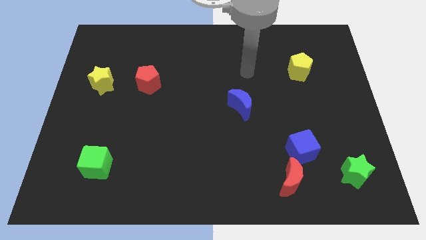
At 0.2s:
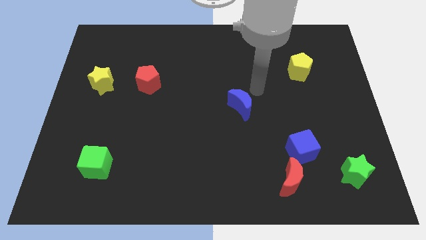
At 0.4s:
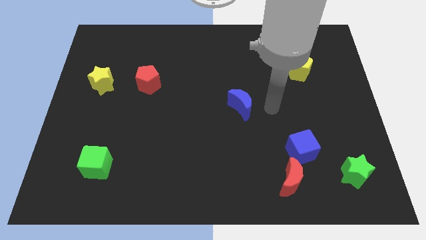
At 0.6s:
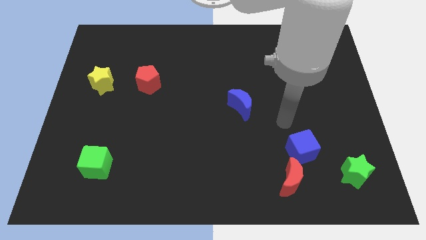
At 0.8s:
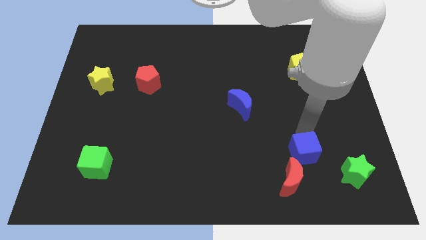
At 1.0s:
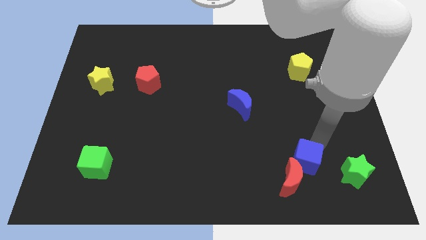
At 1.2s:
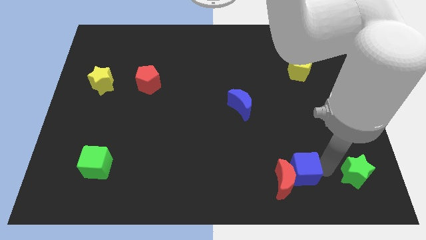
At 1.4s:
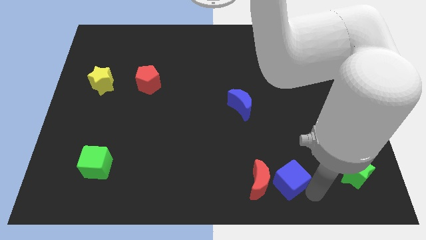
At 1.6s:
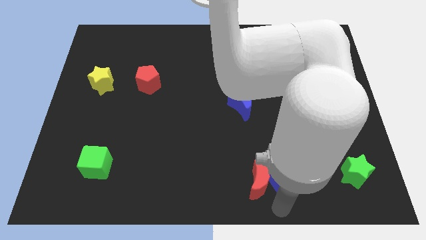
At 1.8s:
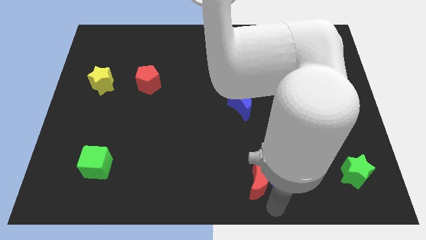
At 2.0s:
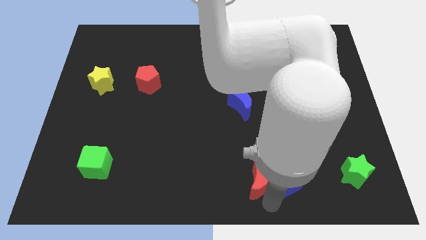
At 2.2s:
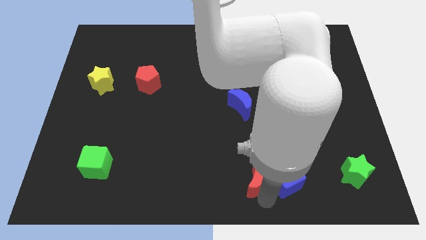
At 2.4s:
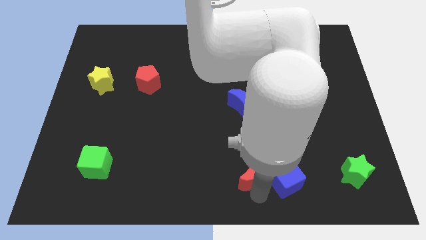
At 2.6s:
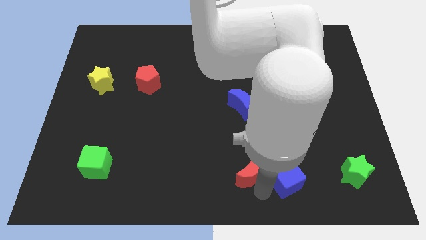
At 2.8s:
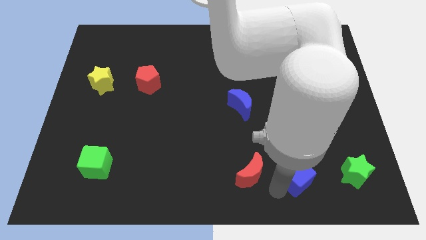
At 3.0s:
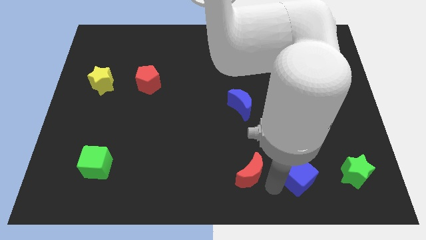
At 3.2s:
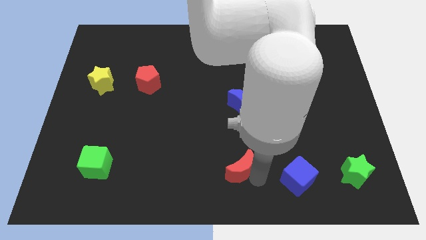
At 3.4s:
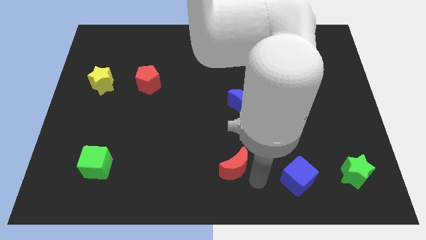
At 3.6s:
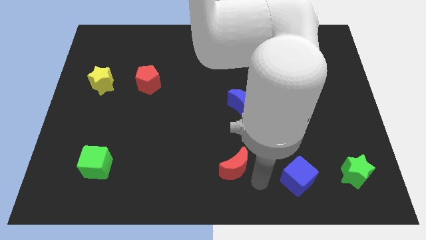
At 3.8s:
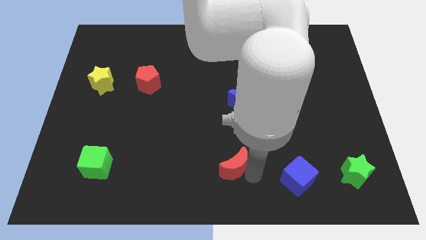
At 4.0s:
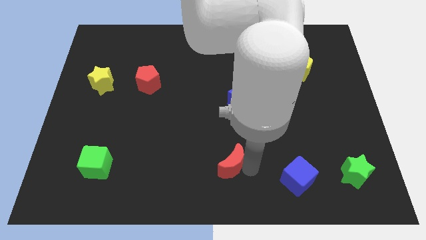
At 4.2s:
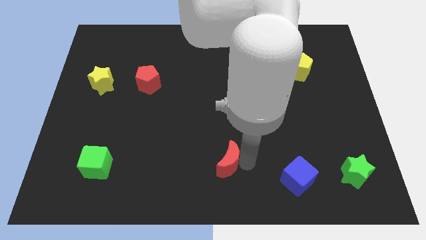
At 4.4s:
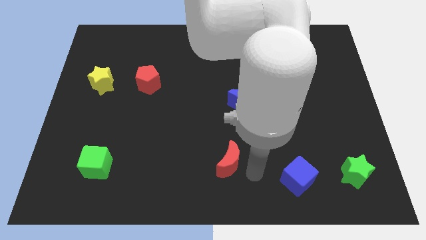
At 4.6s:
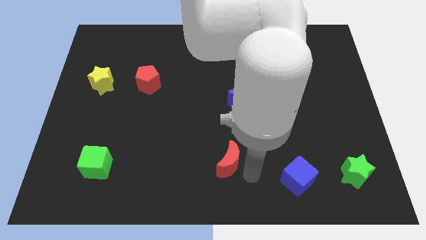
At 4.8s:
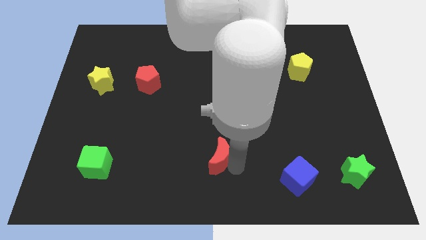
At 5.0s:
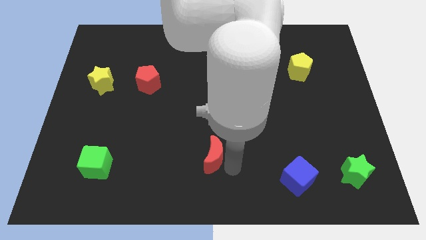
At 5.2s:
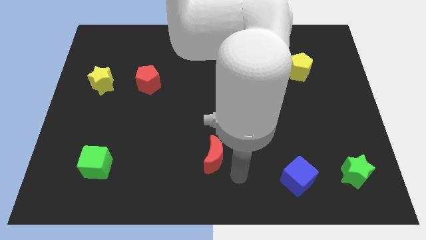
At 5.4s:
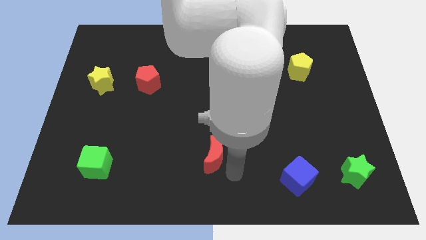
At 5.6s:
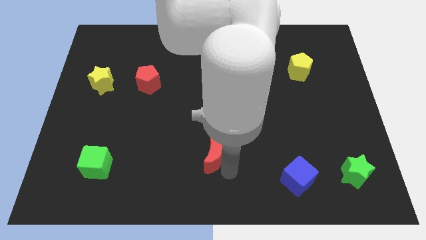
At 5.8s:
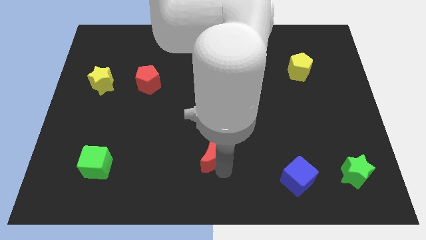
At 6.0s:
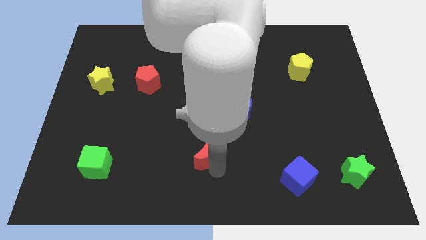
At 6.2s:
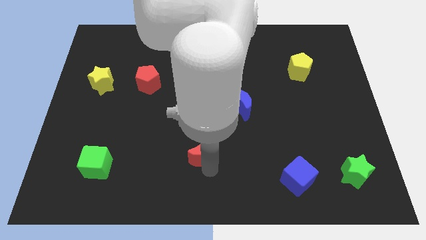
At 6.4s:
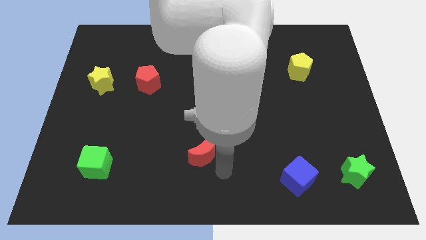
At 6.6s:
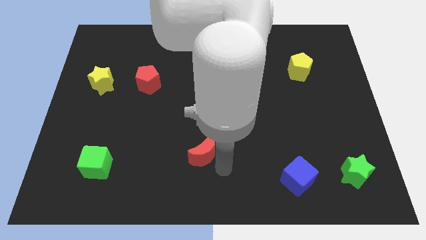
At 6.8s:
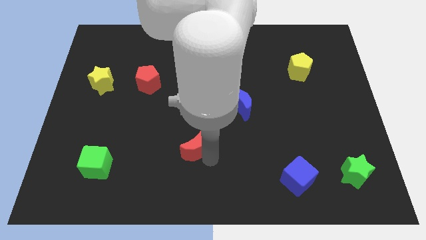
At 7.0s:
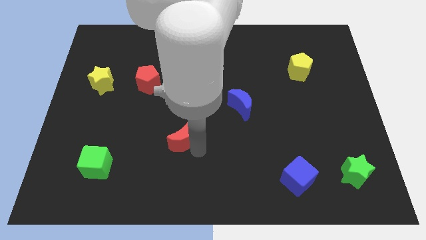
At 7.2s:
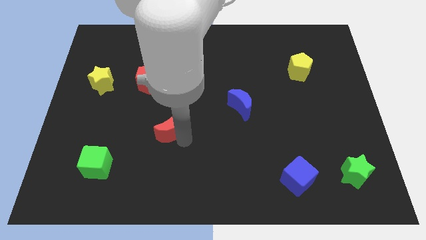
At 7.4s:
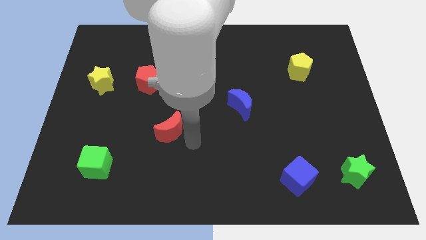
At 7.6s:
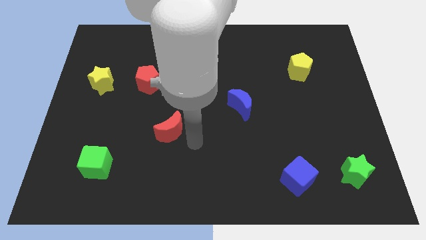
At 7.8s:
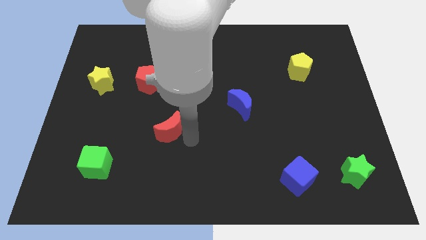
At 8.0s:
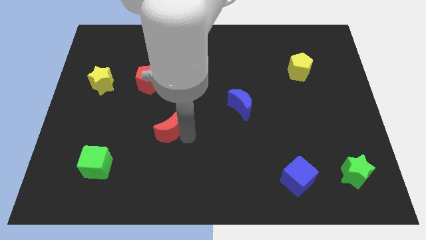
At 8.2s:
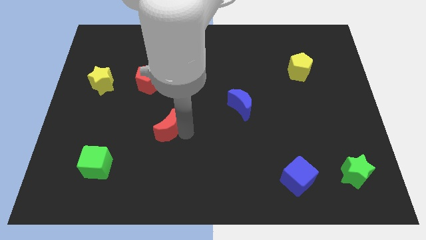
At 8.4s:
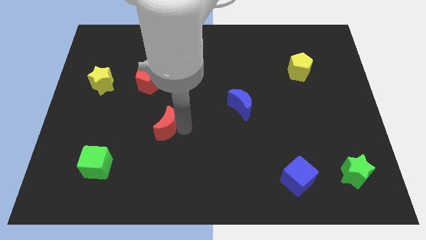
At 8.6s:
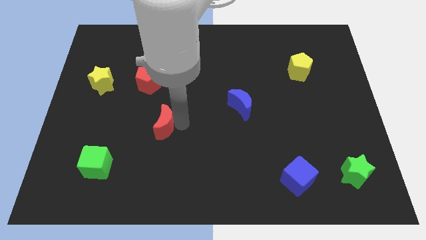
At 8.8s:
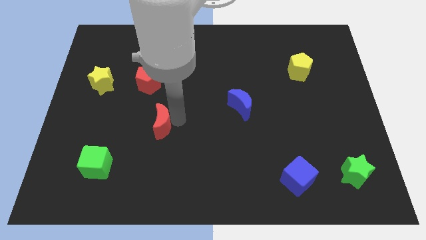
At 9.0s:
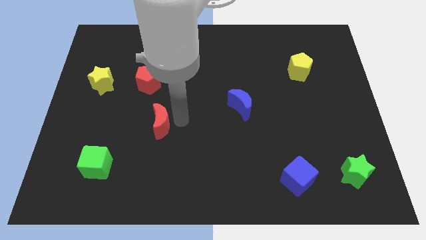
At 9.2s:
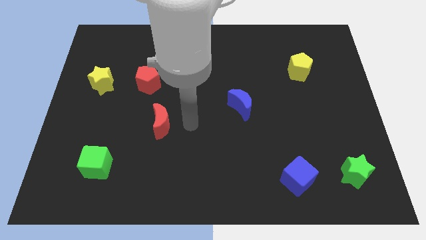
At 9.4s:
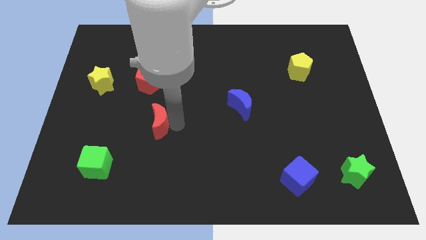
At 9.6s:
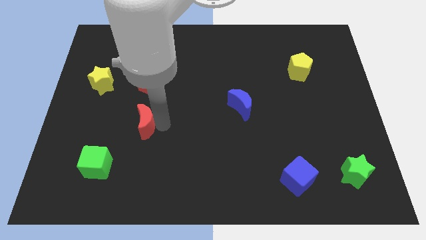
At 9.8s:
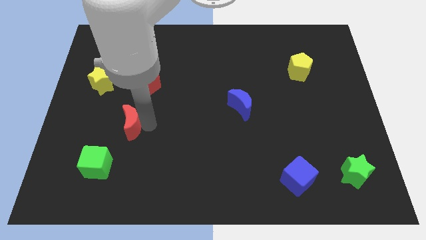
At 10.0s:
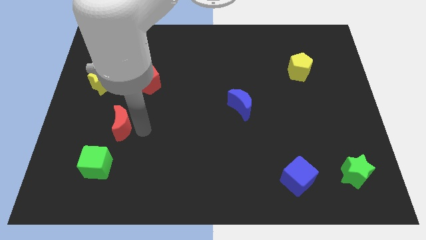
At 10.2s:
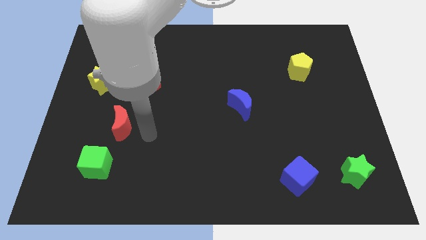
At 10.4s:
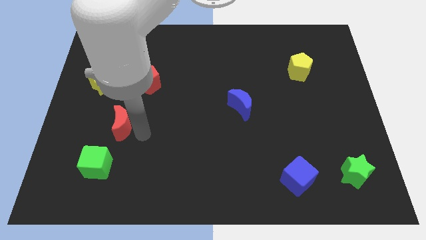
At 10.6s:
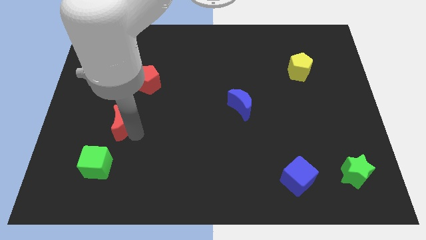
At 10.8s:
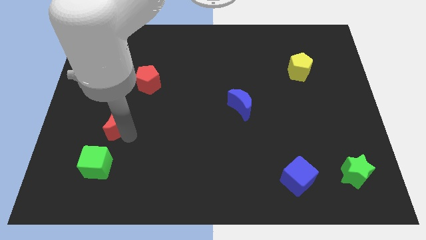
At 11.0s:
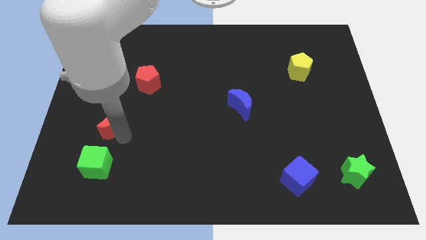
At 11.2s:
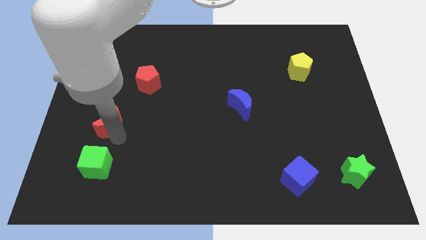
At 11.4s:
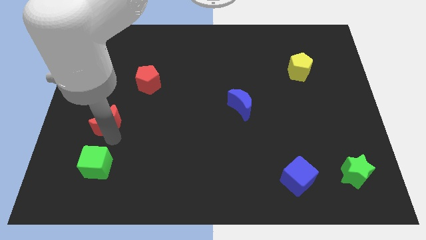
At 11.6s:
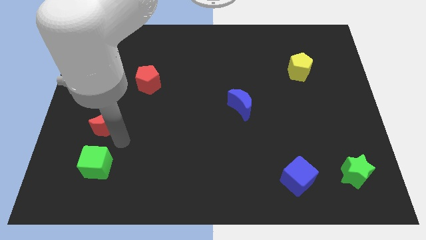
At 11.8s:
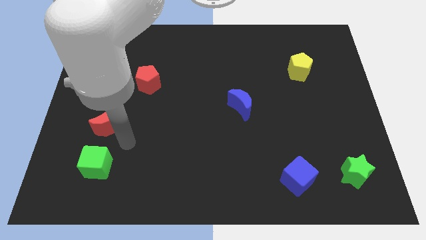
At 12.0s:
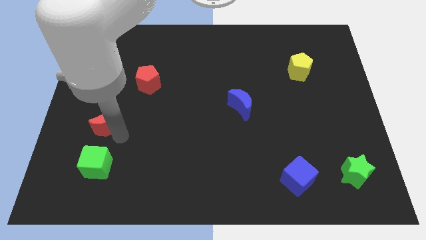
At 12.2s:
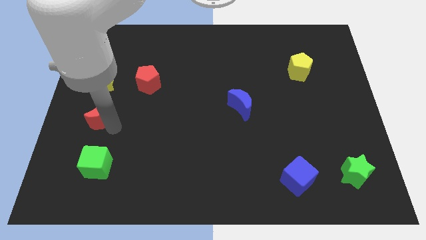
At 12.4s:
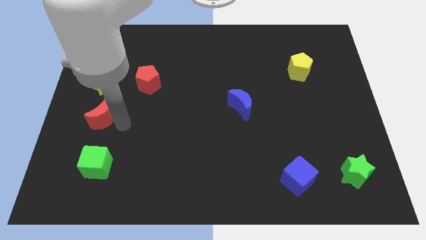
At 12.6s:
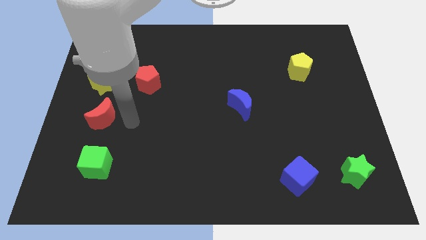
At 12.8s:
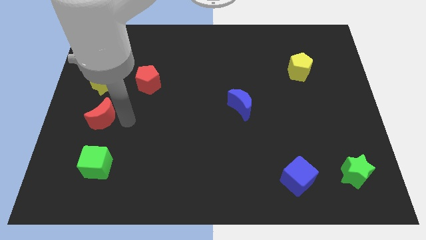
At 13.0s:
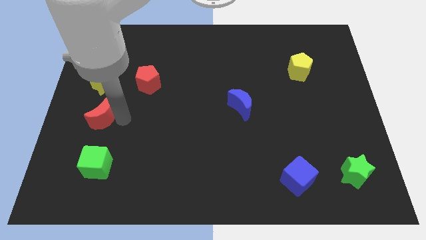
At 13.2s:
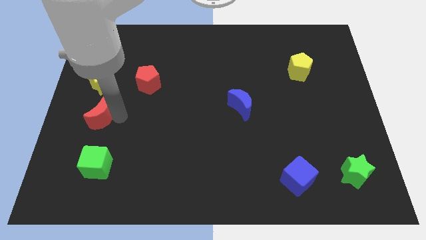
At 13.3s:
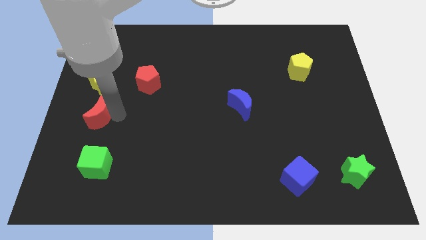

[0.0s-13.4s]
move the red moon to the center left
